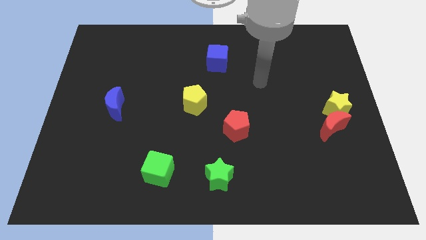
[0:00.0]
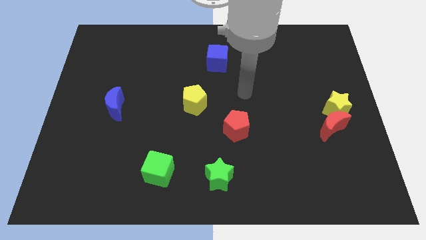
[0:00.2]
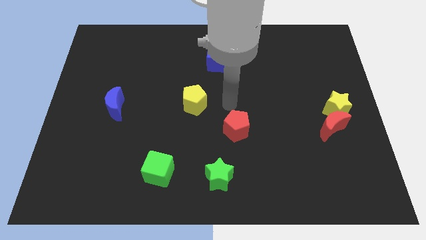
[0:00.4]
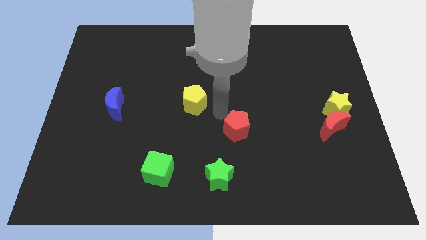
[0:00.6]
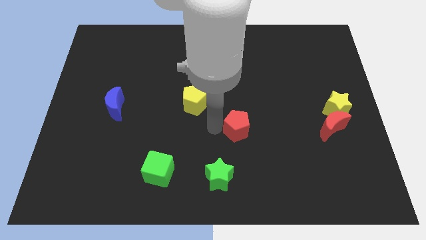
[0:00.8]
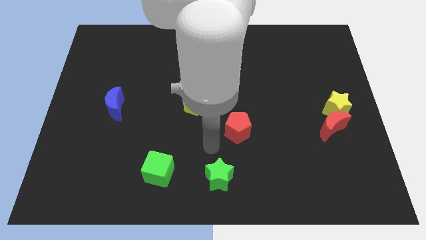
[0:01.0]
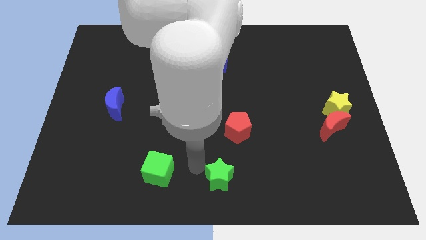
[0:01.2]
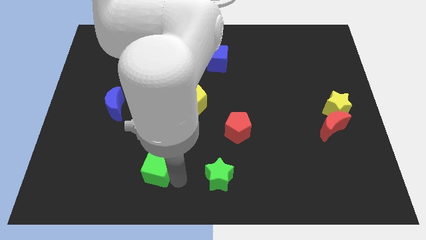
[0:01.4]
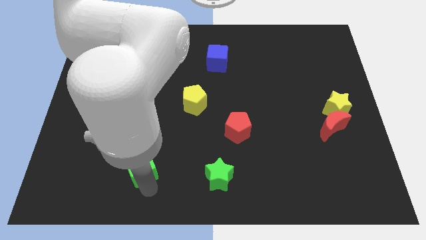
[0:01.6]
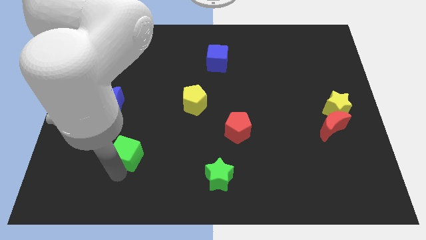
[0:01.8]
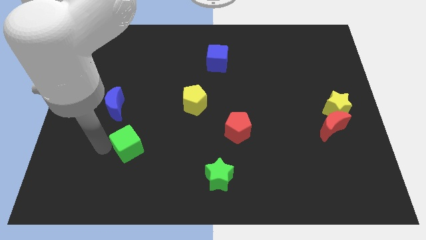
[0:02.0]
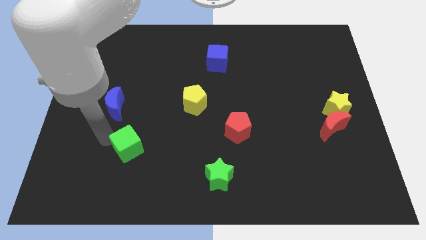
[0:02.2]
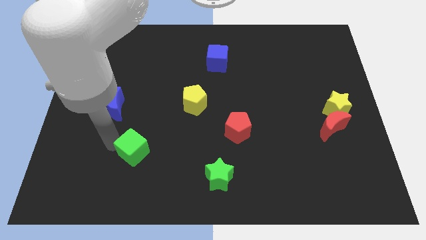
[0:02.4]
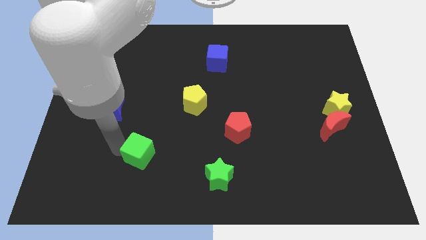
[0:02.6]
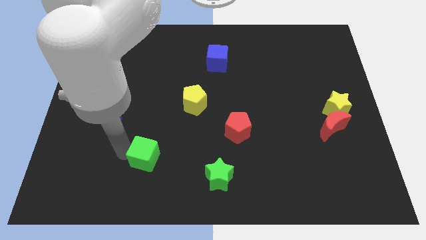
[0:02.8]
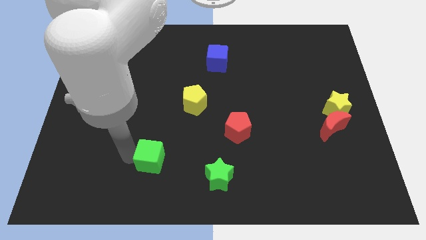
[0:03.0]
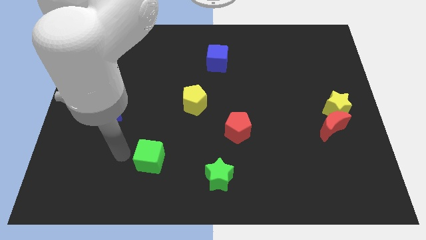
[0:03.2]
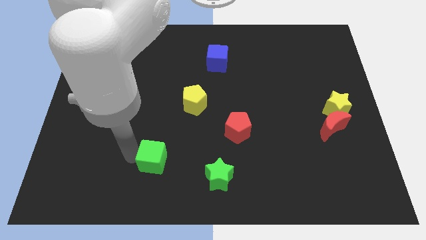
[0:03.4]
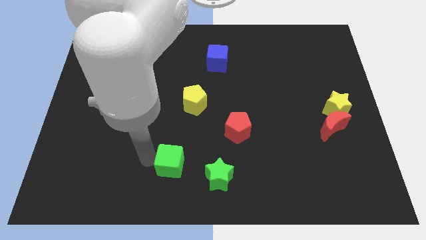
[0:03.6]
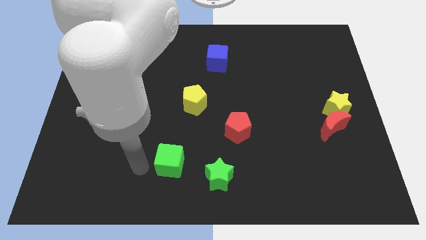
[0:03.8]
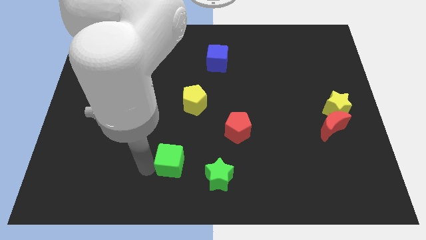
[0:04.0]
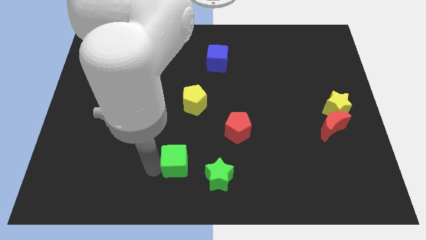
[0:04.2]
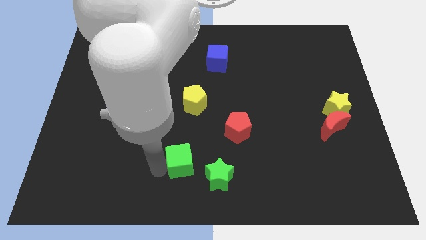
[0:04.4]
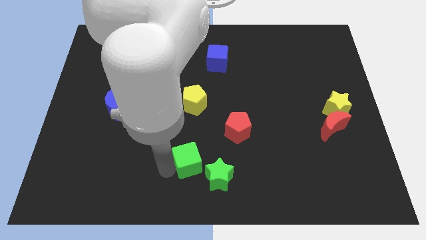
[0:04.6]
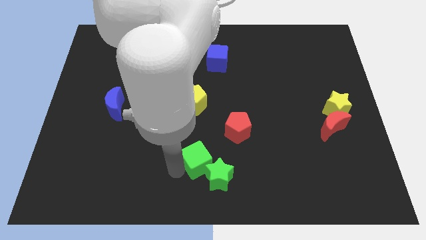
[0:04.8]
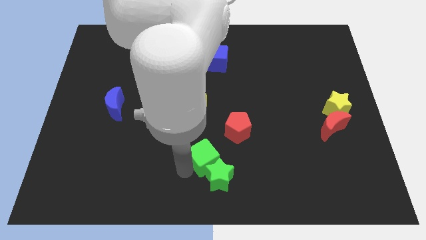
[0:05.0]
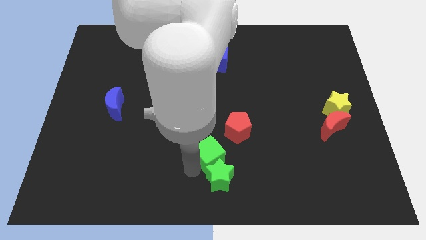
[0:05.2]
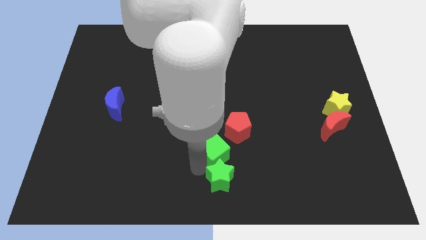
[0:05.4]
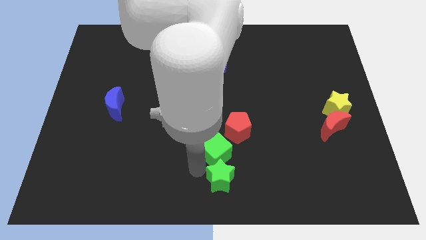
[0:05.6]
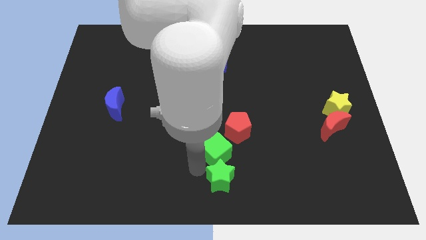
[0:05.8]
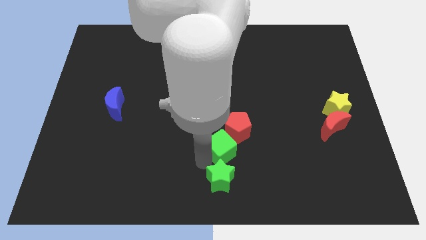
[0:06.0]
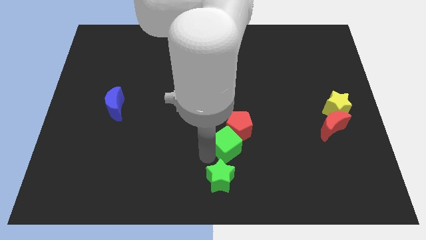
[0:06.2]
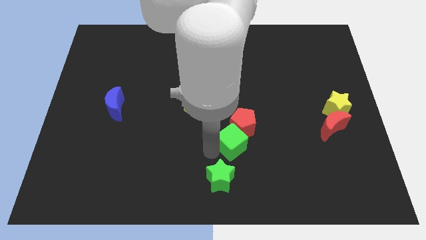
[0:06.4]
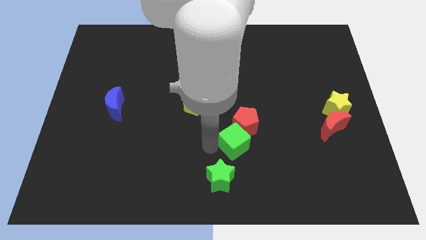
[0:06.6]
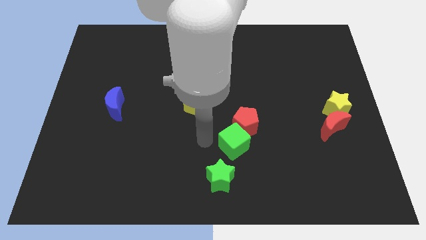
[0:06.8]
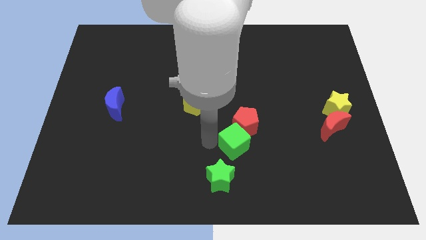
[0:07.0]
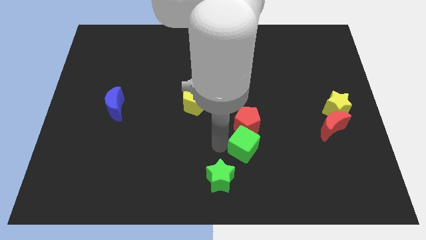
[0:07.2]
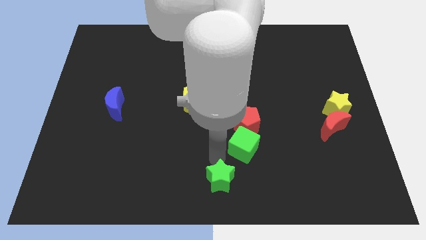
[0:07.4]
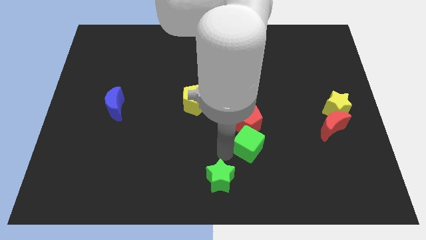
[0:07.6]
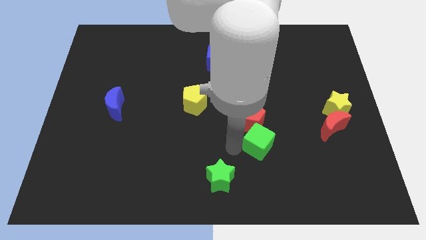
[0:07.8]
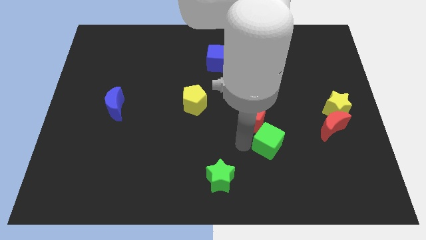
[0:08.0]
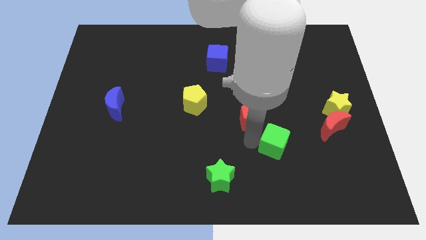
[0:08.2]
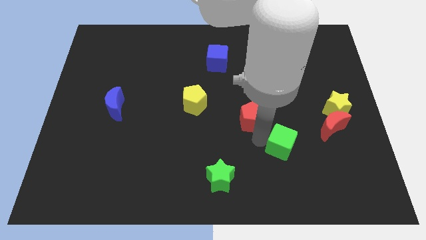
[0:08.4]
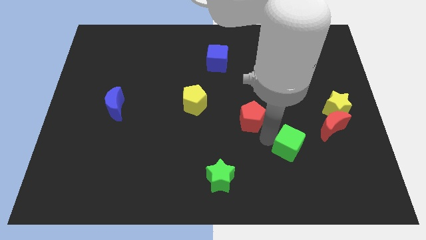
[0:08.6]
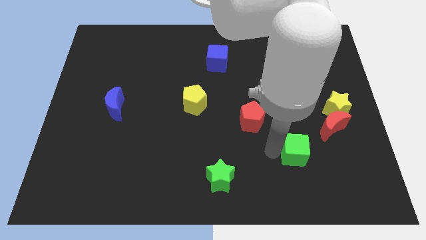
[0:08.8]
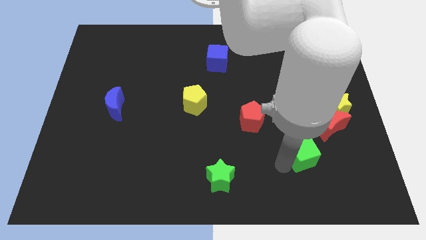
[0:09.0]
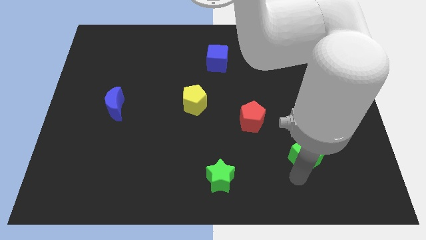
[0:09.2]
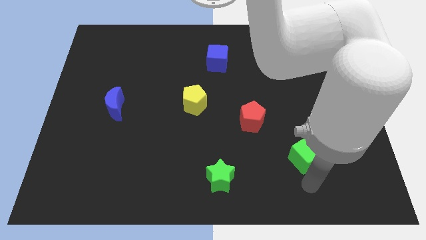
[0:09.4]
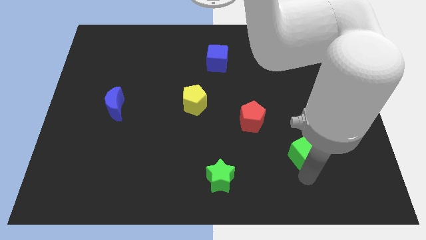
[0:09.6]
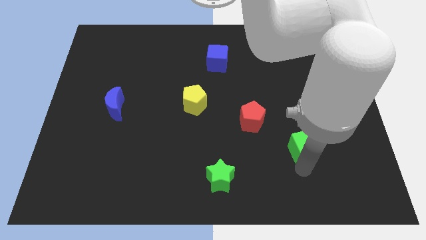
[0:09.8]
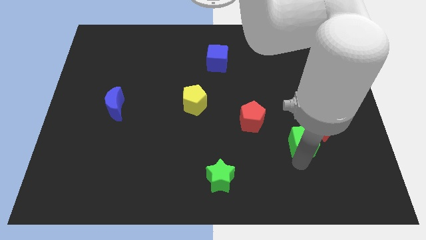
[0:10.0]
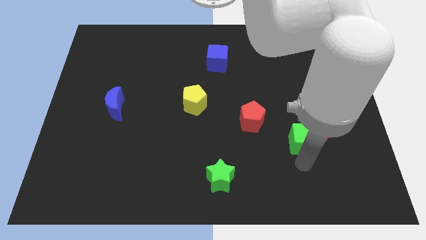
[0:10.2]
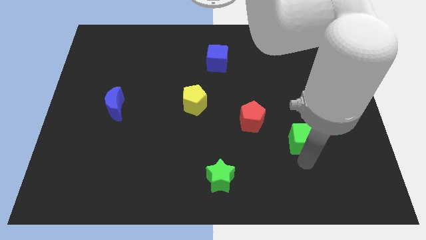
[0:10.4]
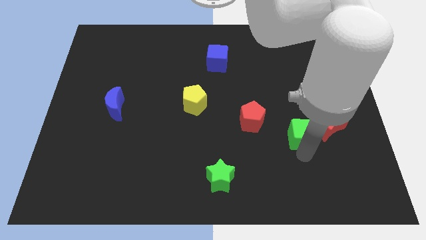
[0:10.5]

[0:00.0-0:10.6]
push the green cube just right of the red pentagon

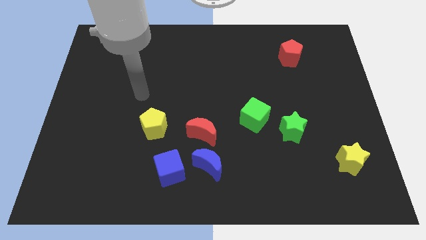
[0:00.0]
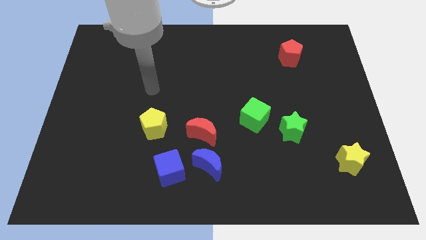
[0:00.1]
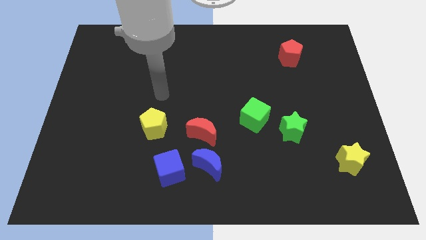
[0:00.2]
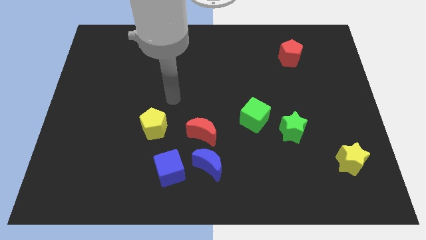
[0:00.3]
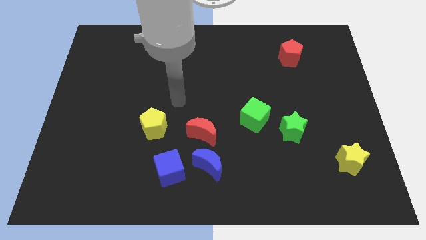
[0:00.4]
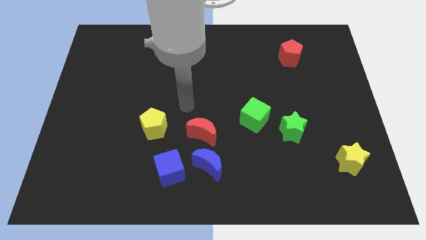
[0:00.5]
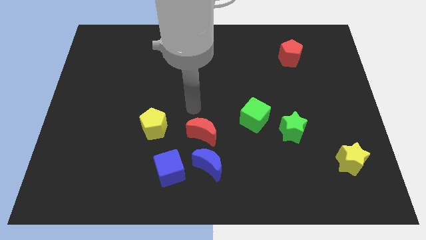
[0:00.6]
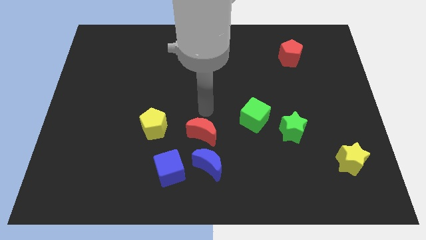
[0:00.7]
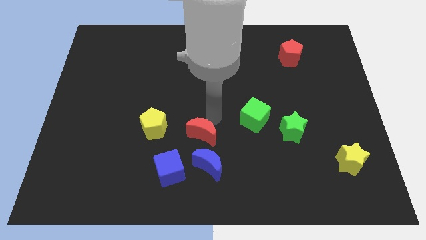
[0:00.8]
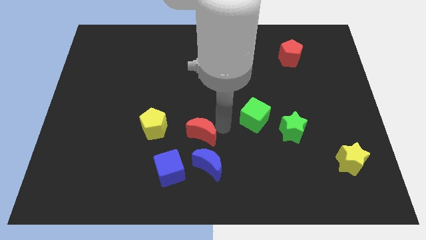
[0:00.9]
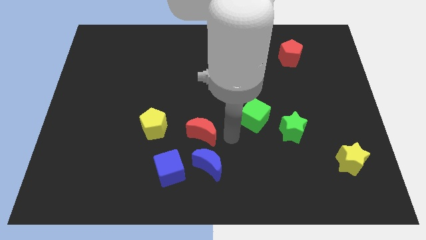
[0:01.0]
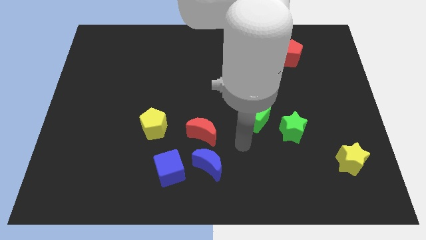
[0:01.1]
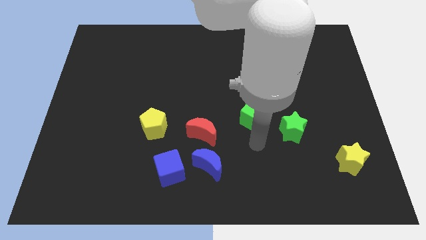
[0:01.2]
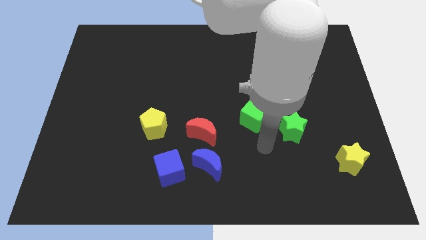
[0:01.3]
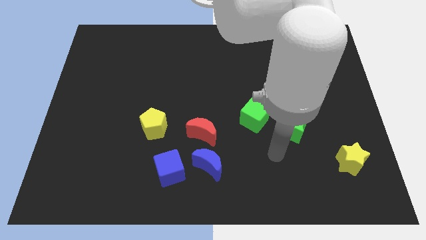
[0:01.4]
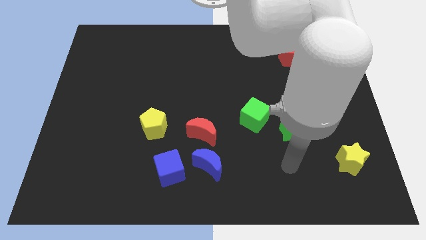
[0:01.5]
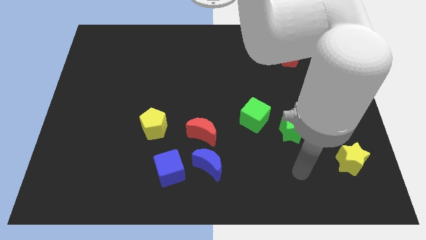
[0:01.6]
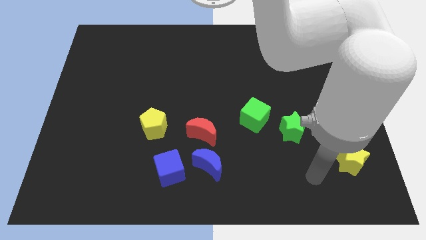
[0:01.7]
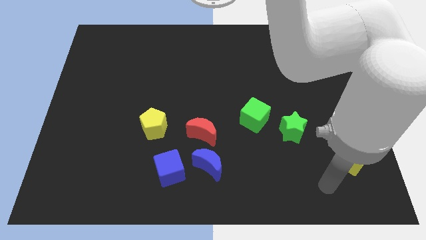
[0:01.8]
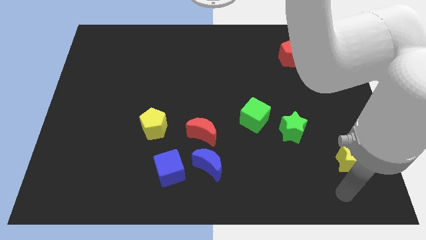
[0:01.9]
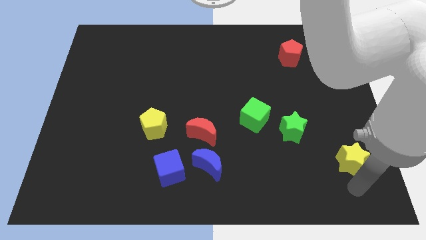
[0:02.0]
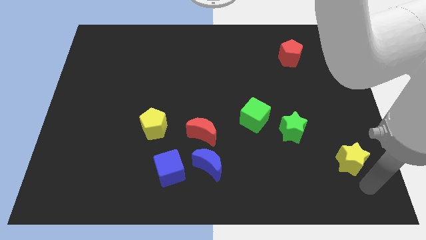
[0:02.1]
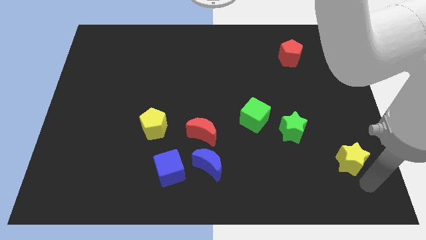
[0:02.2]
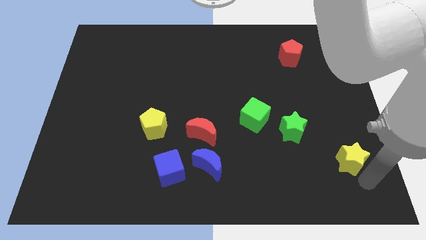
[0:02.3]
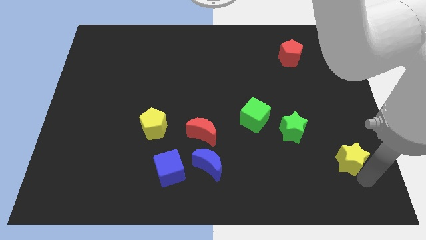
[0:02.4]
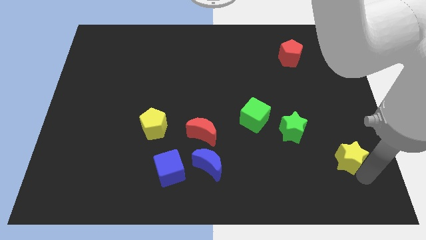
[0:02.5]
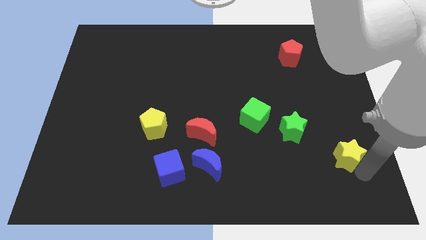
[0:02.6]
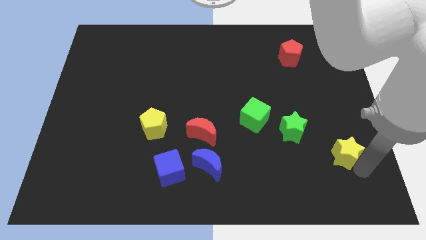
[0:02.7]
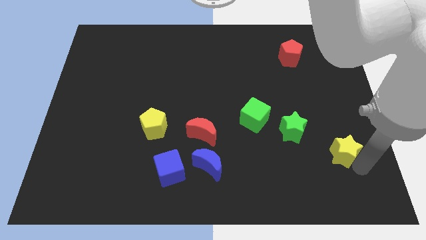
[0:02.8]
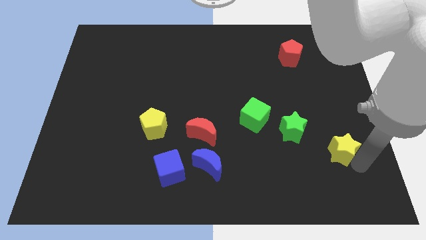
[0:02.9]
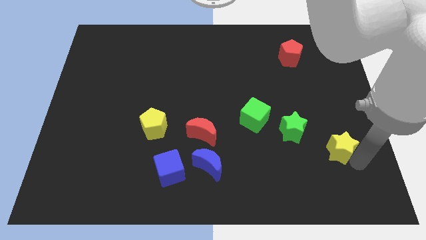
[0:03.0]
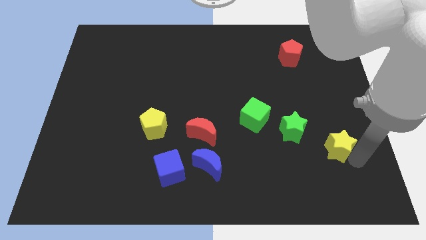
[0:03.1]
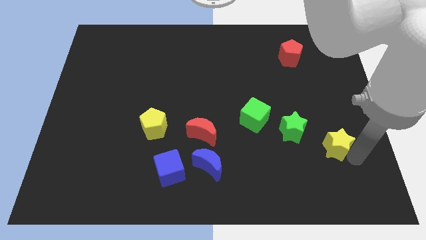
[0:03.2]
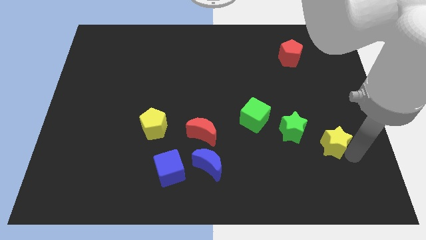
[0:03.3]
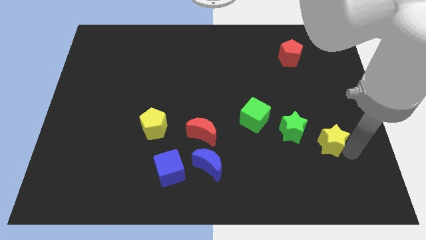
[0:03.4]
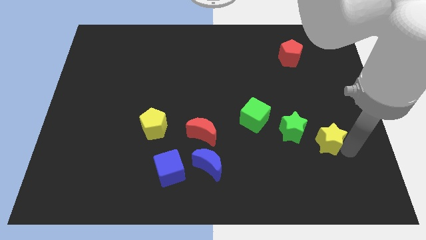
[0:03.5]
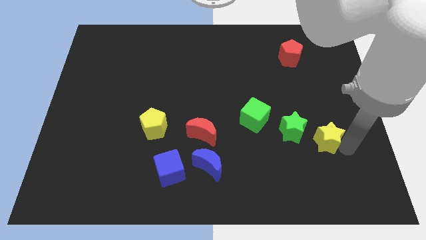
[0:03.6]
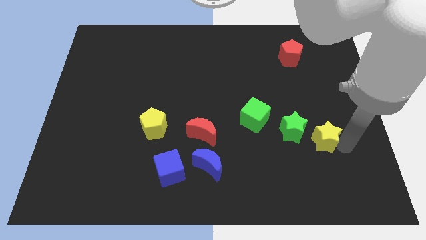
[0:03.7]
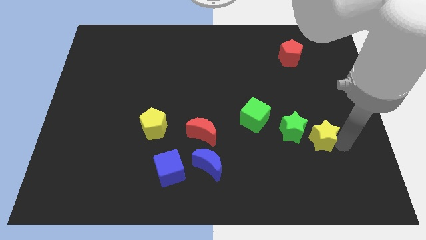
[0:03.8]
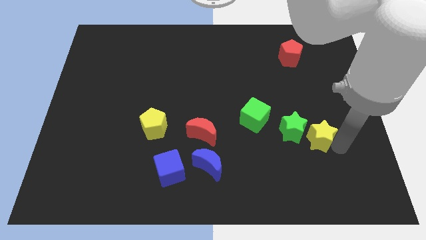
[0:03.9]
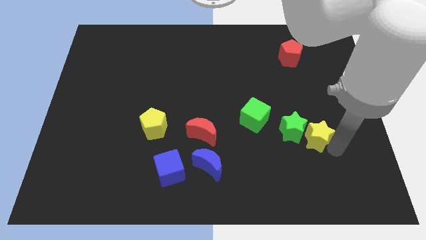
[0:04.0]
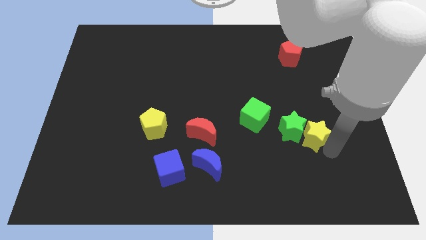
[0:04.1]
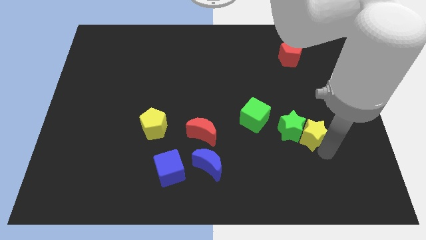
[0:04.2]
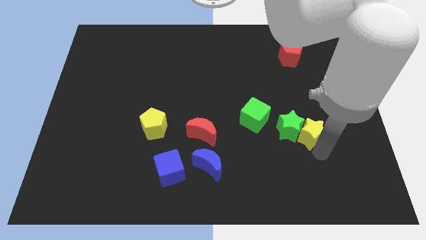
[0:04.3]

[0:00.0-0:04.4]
move the yellow star right of the green cube
